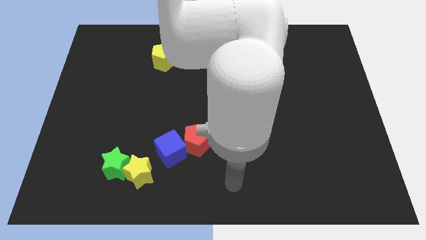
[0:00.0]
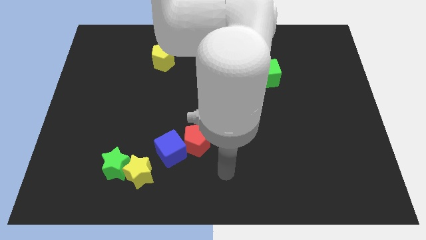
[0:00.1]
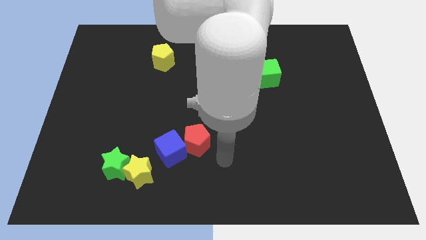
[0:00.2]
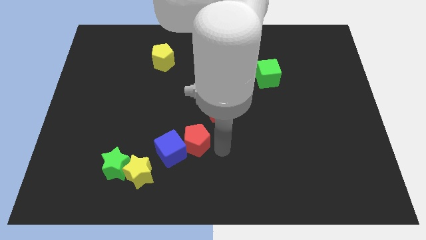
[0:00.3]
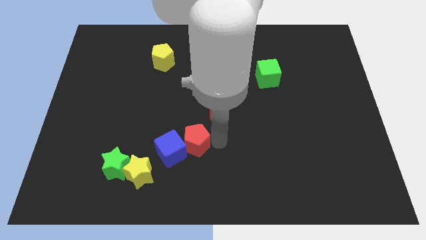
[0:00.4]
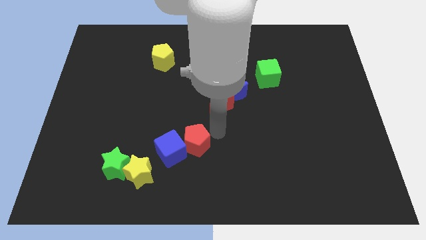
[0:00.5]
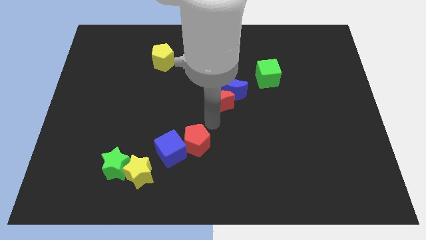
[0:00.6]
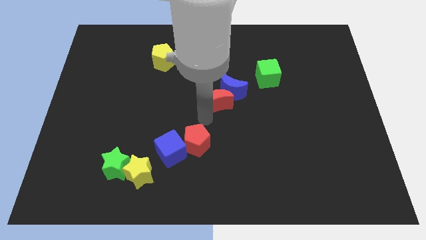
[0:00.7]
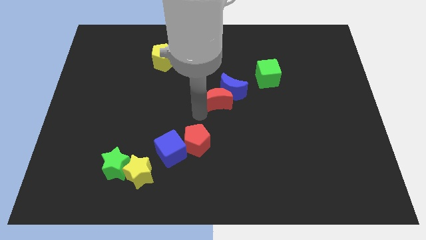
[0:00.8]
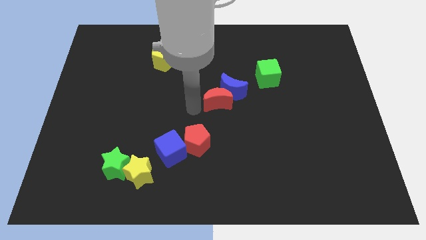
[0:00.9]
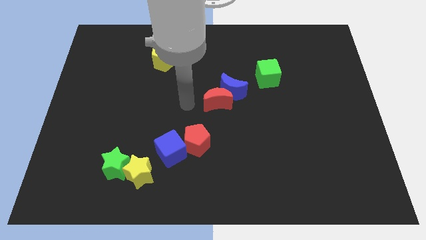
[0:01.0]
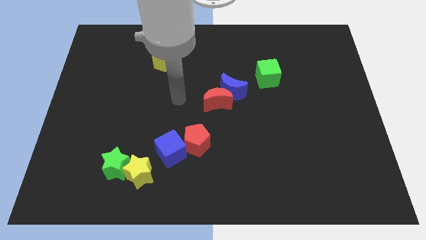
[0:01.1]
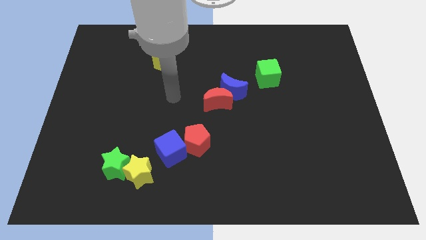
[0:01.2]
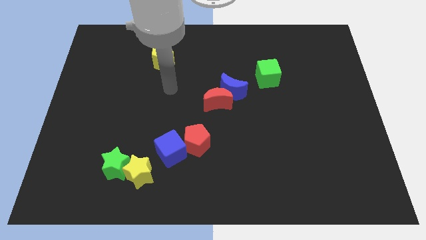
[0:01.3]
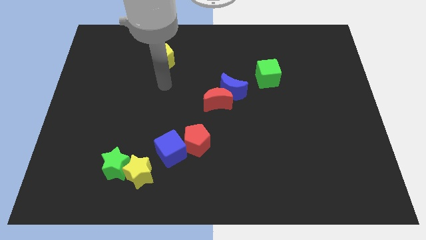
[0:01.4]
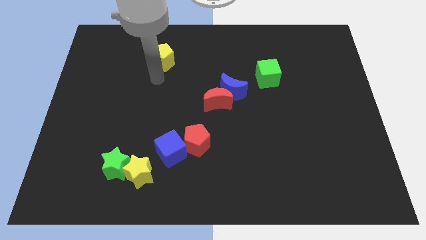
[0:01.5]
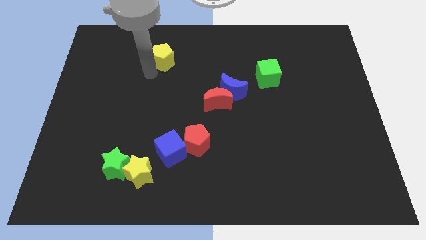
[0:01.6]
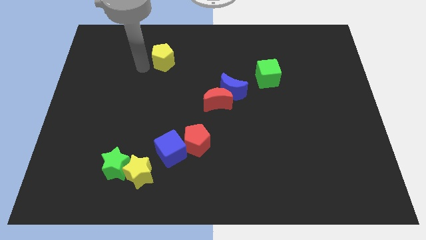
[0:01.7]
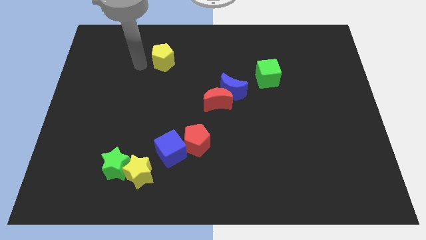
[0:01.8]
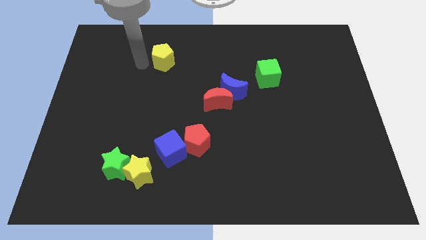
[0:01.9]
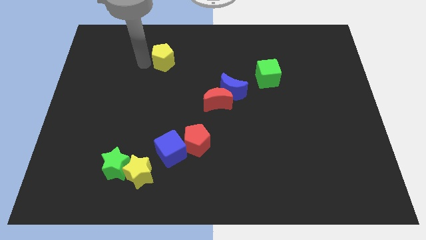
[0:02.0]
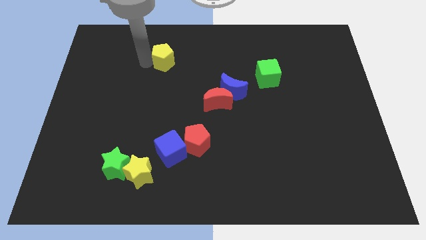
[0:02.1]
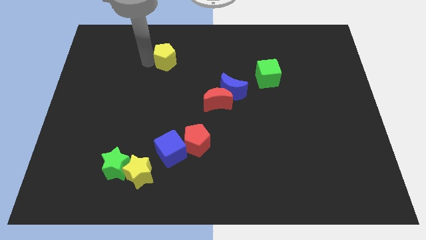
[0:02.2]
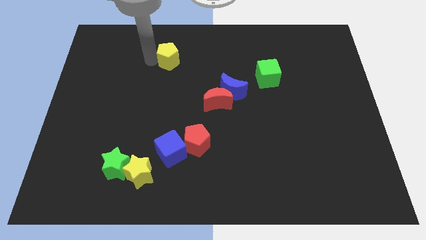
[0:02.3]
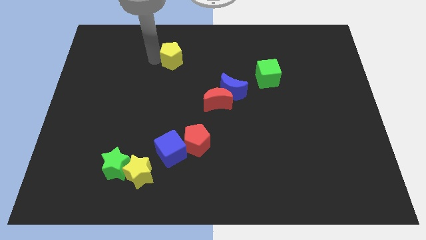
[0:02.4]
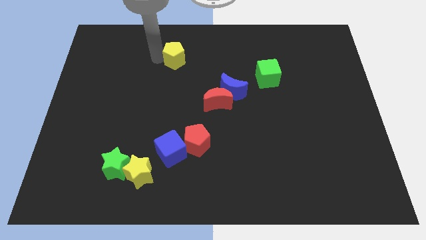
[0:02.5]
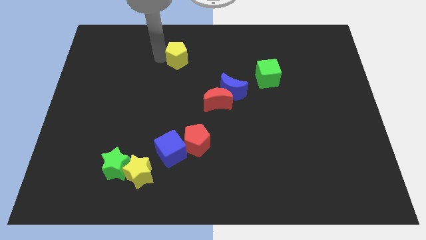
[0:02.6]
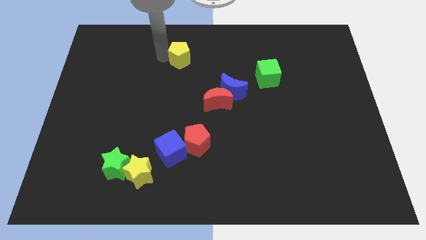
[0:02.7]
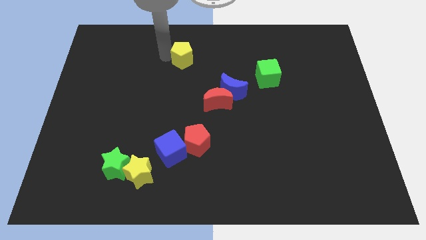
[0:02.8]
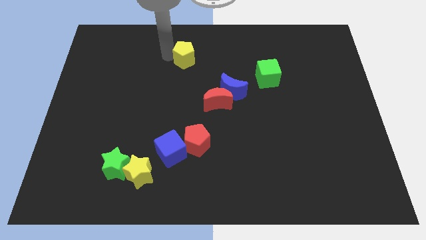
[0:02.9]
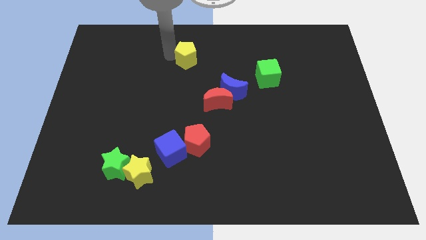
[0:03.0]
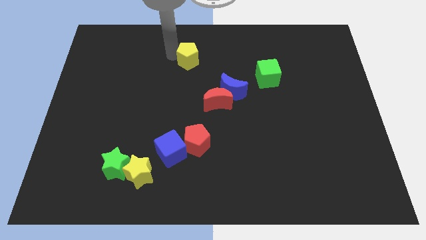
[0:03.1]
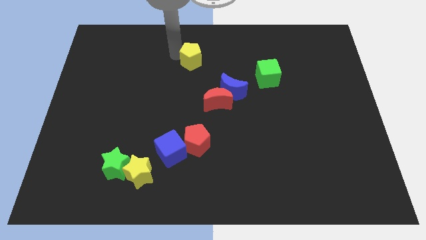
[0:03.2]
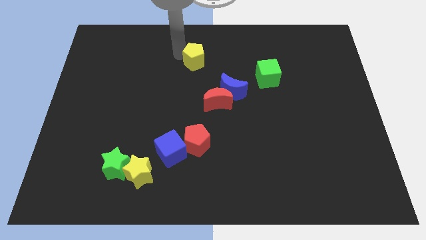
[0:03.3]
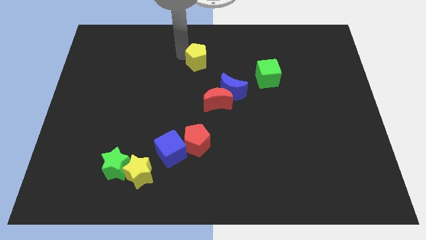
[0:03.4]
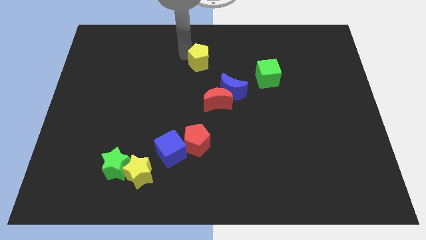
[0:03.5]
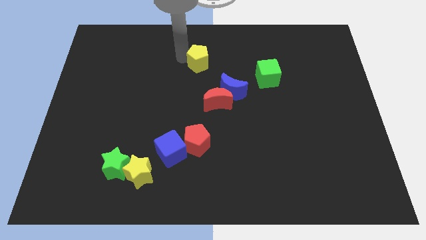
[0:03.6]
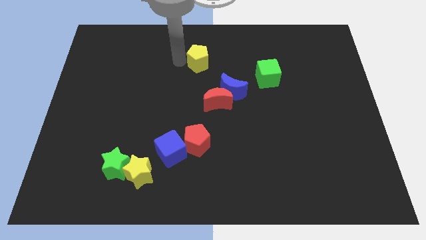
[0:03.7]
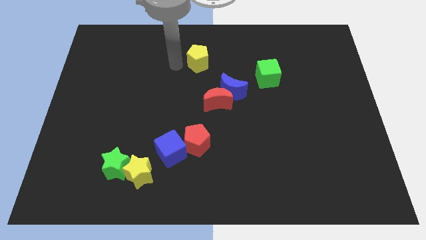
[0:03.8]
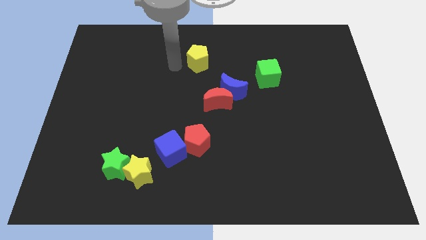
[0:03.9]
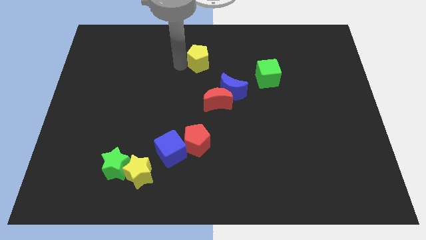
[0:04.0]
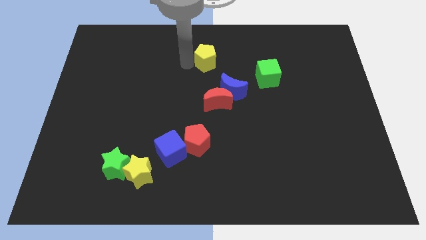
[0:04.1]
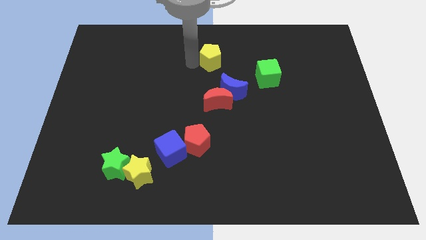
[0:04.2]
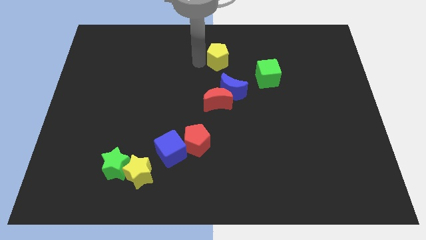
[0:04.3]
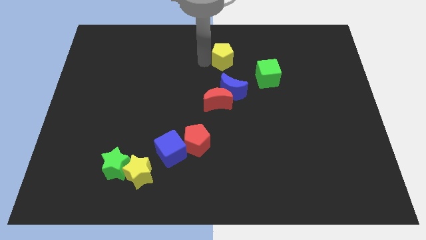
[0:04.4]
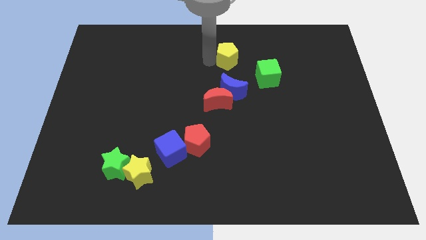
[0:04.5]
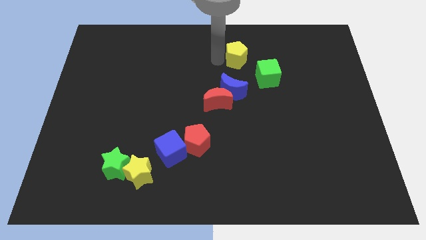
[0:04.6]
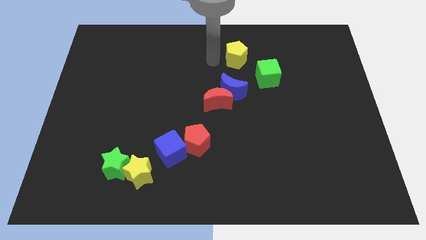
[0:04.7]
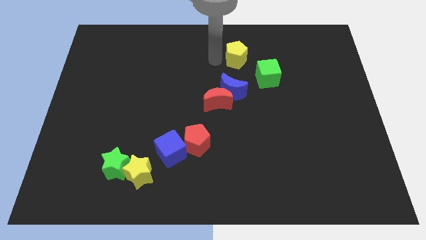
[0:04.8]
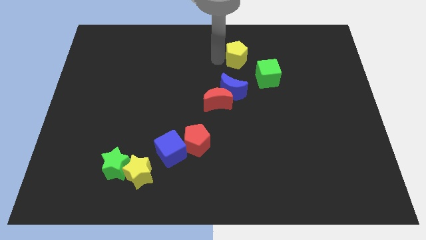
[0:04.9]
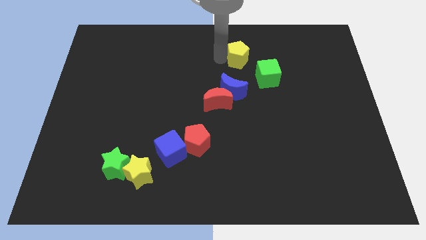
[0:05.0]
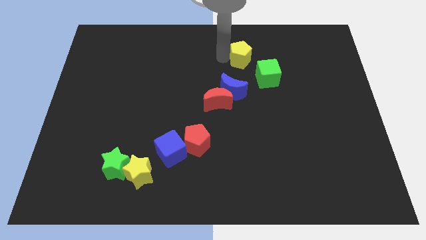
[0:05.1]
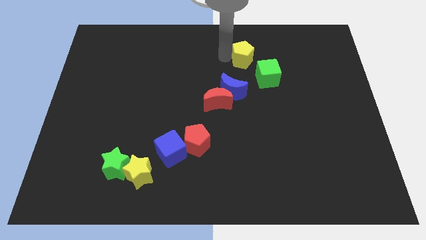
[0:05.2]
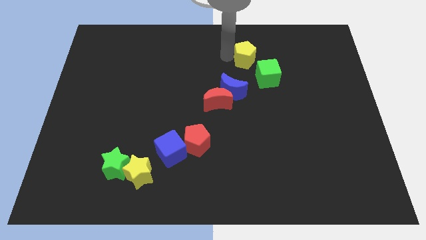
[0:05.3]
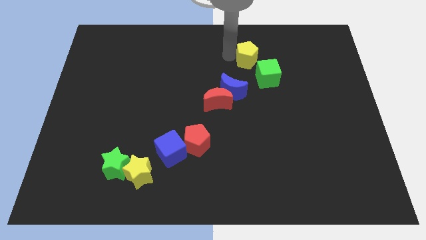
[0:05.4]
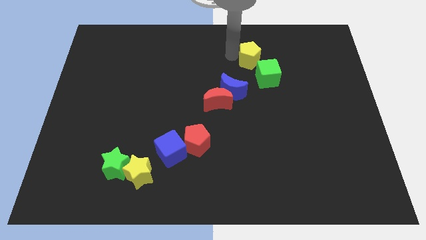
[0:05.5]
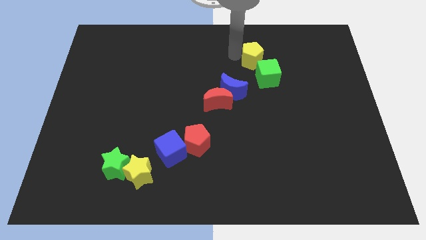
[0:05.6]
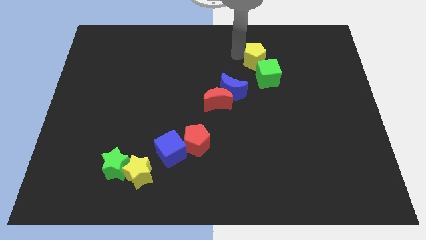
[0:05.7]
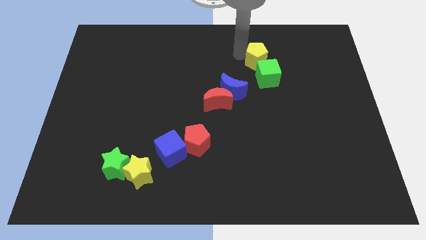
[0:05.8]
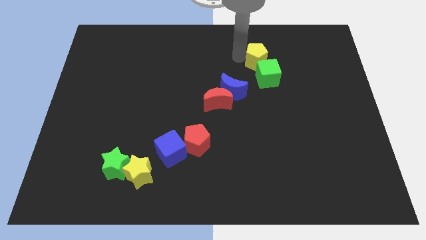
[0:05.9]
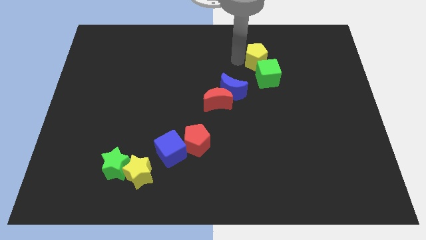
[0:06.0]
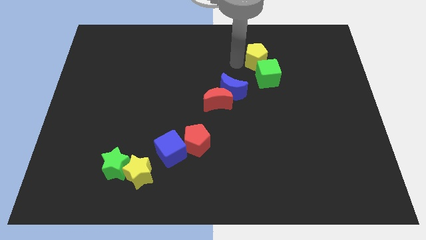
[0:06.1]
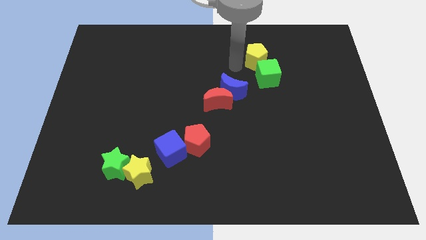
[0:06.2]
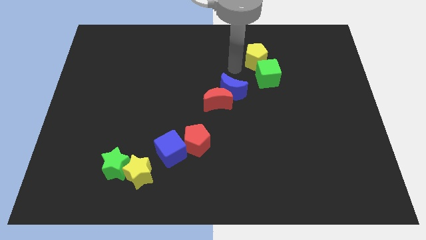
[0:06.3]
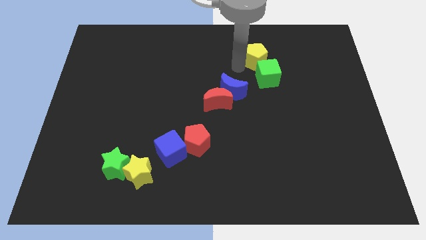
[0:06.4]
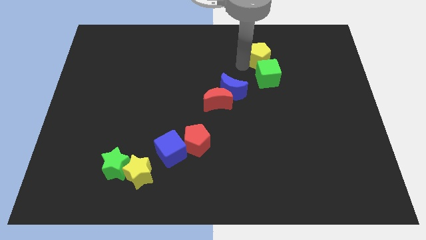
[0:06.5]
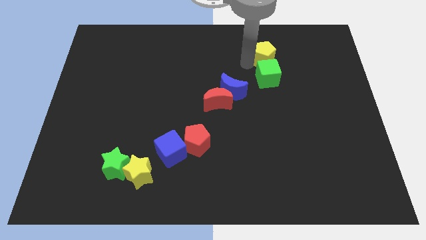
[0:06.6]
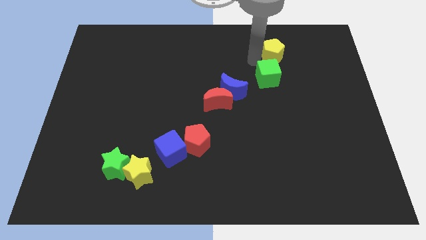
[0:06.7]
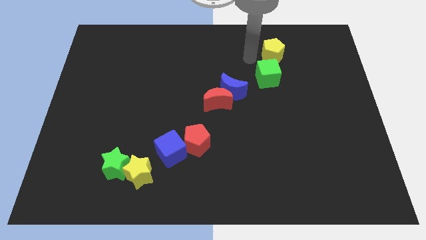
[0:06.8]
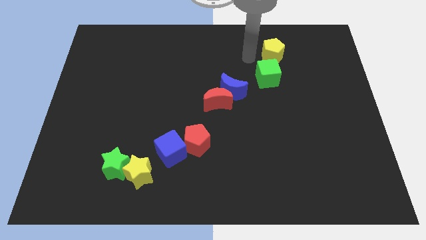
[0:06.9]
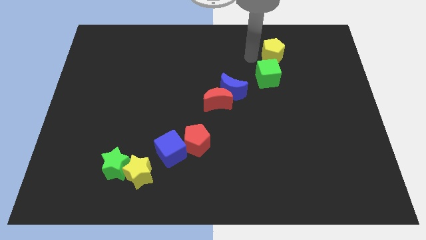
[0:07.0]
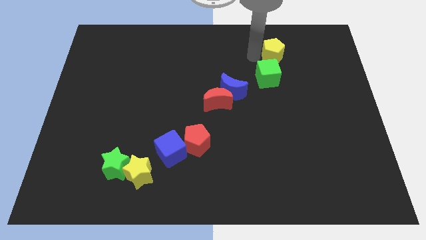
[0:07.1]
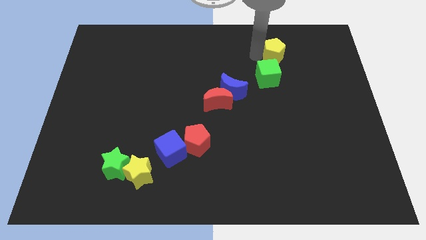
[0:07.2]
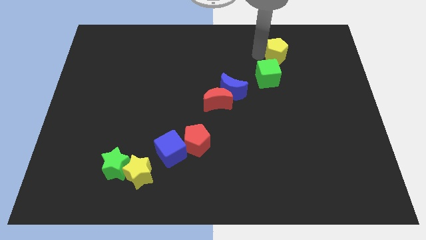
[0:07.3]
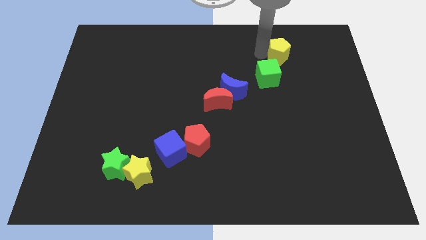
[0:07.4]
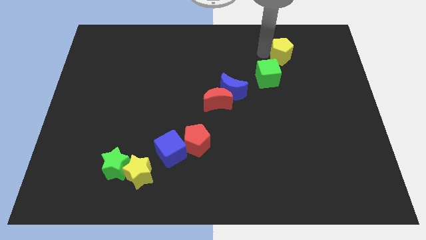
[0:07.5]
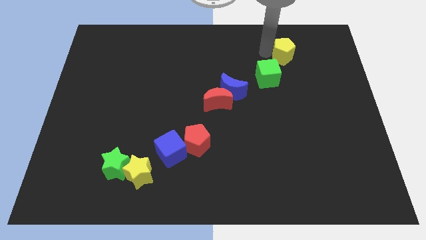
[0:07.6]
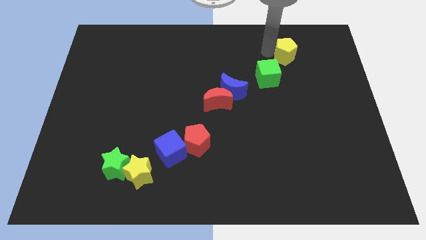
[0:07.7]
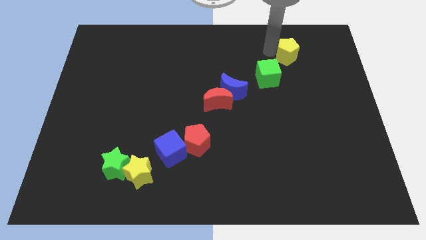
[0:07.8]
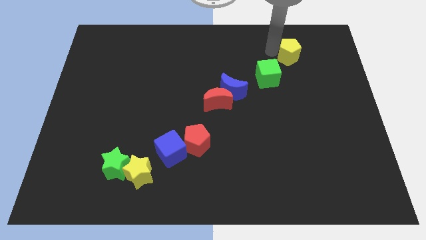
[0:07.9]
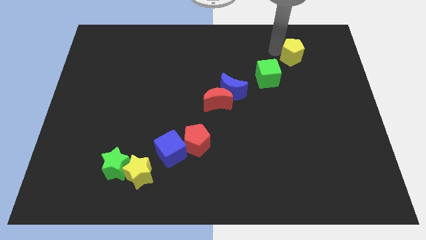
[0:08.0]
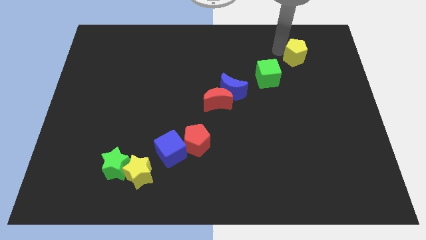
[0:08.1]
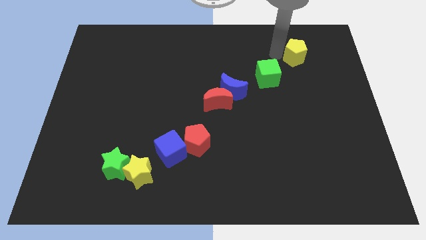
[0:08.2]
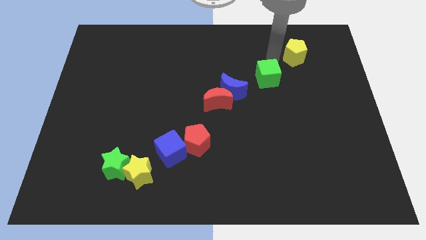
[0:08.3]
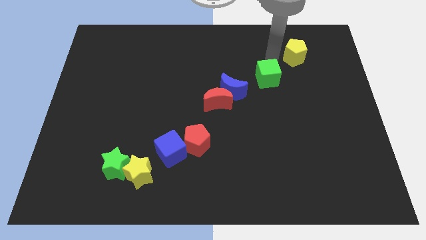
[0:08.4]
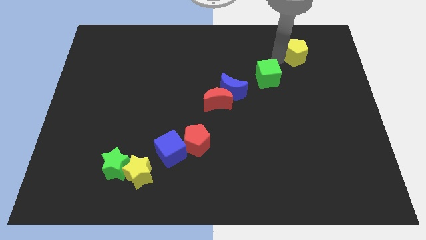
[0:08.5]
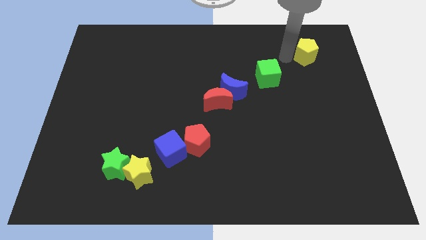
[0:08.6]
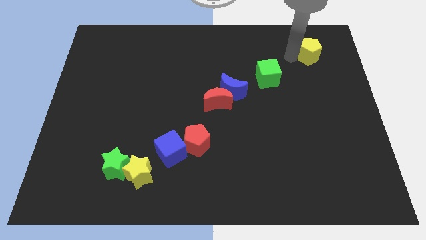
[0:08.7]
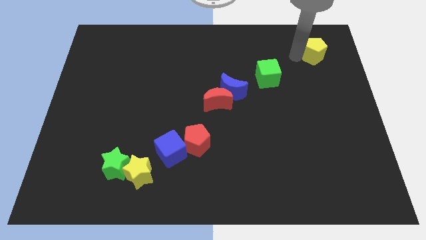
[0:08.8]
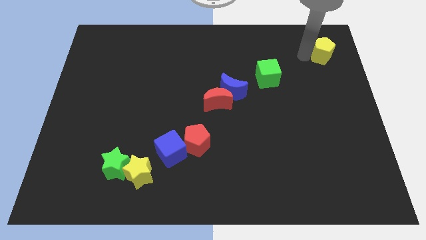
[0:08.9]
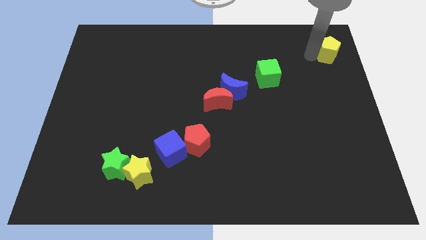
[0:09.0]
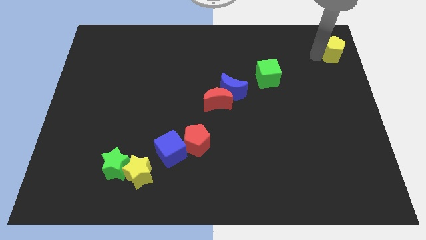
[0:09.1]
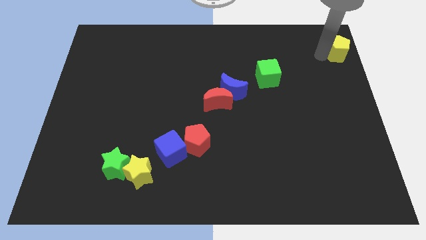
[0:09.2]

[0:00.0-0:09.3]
push the yellow pentagon to the upper right corner
